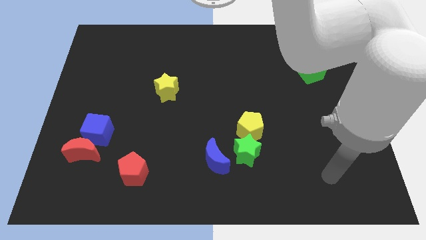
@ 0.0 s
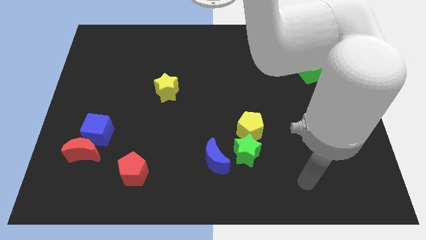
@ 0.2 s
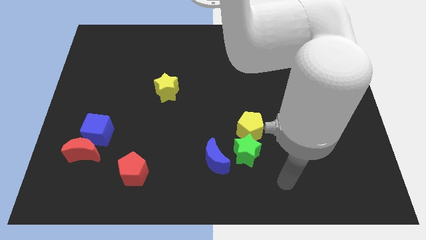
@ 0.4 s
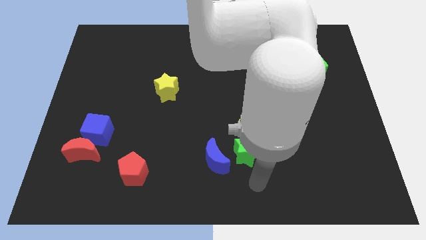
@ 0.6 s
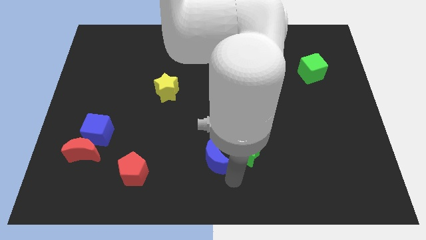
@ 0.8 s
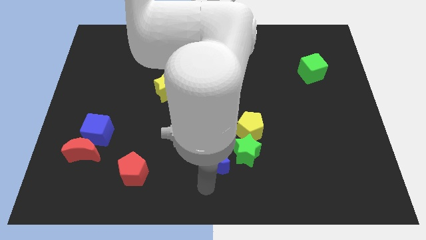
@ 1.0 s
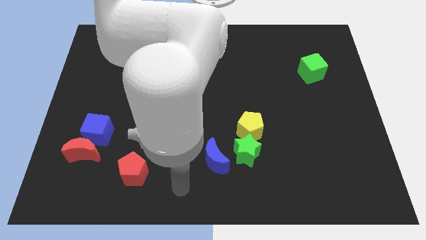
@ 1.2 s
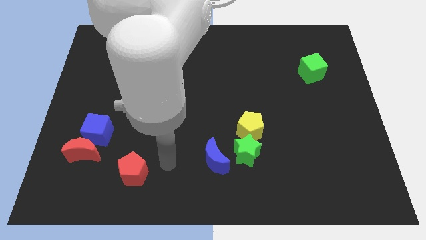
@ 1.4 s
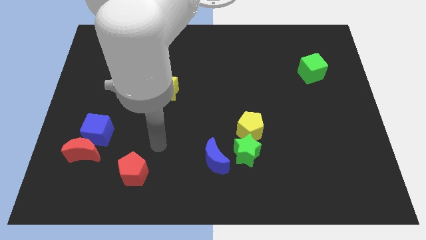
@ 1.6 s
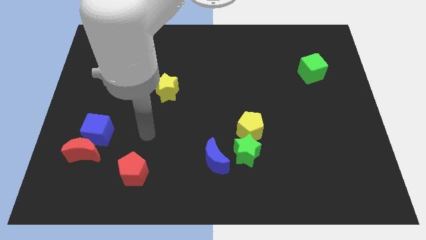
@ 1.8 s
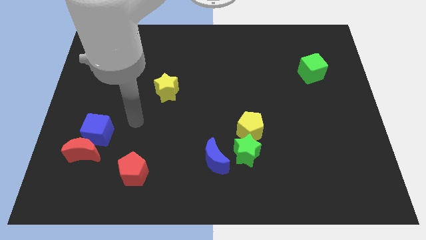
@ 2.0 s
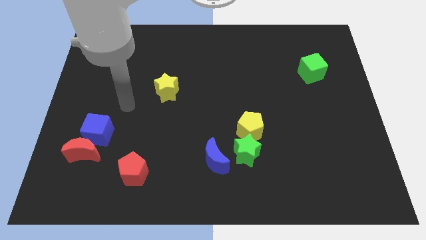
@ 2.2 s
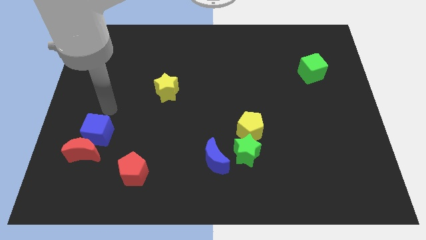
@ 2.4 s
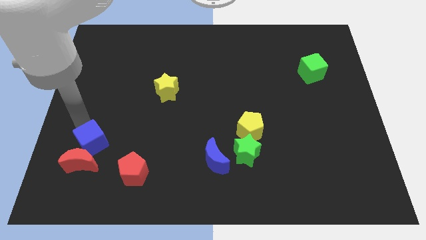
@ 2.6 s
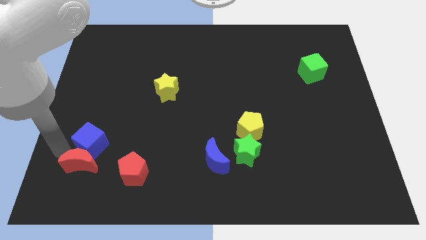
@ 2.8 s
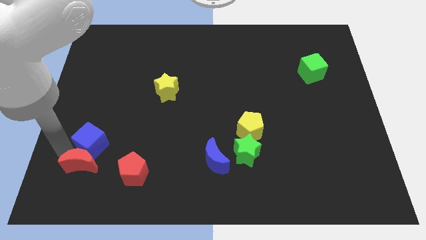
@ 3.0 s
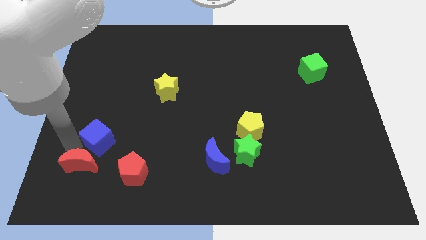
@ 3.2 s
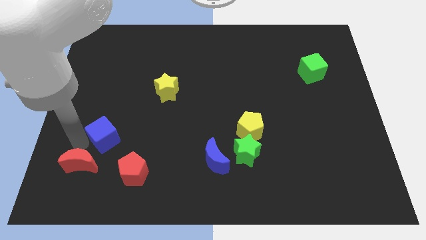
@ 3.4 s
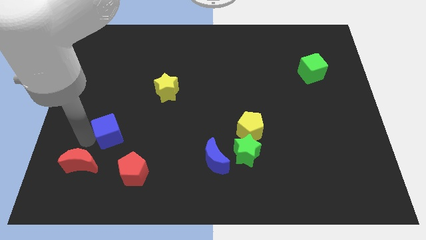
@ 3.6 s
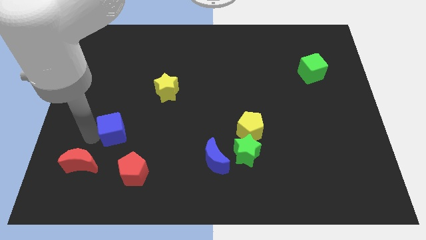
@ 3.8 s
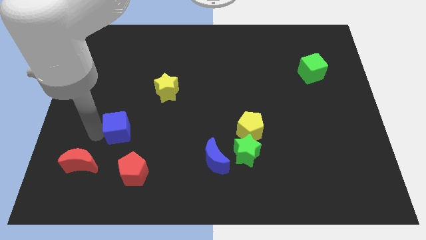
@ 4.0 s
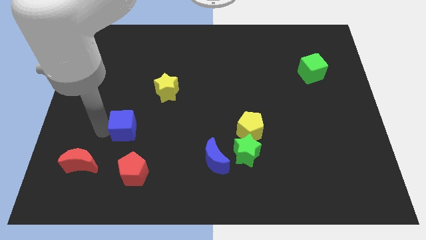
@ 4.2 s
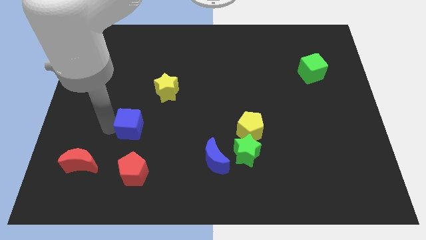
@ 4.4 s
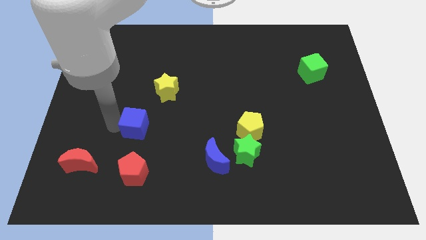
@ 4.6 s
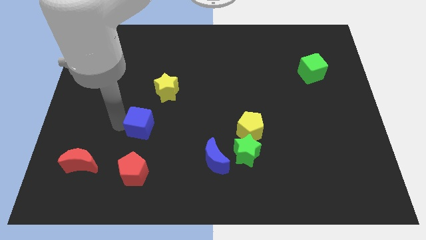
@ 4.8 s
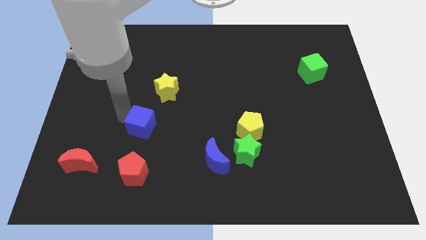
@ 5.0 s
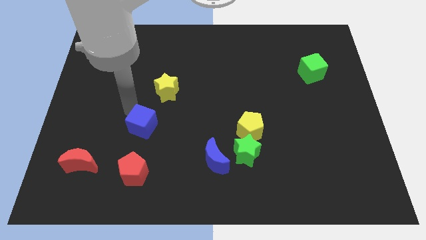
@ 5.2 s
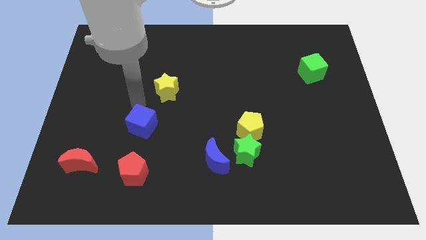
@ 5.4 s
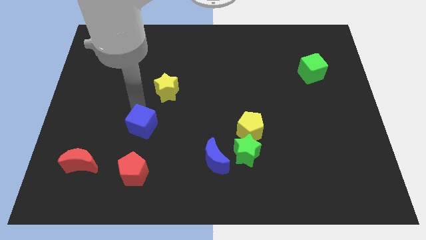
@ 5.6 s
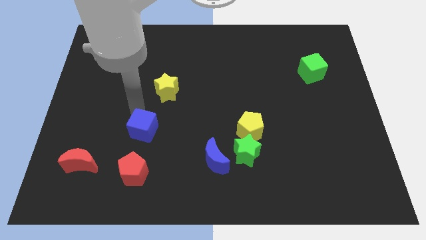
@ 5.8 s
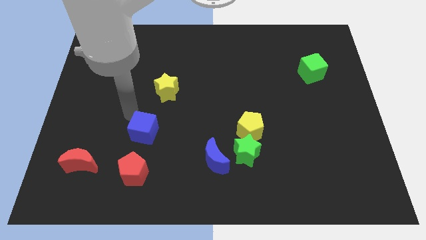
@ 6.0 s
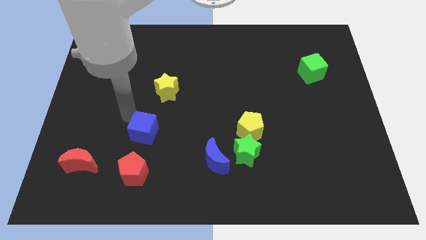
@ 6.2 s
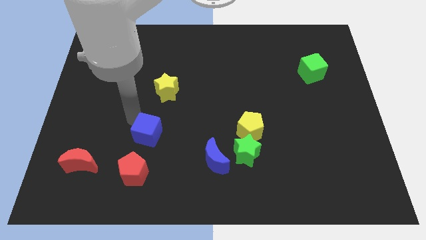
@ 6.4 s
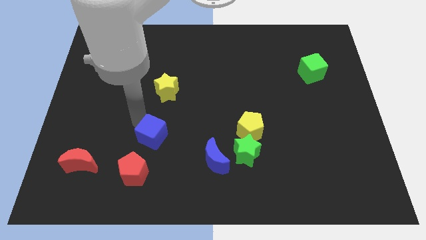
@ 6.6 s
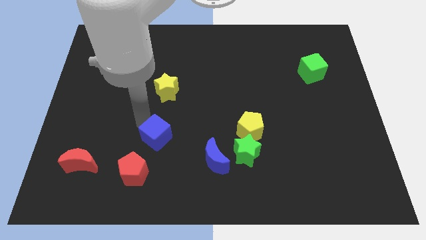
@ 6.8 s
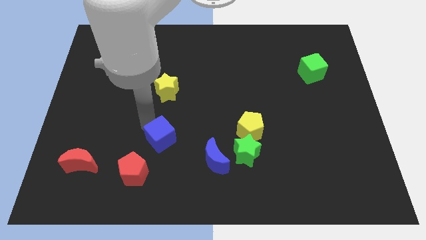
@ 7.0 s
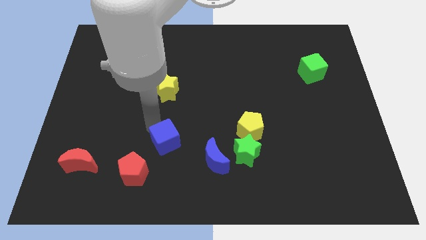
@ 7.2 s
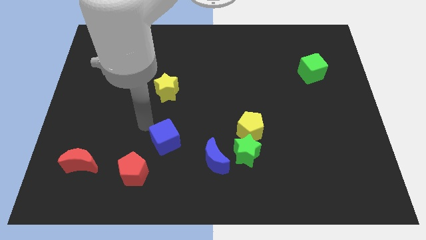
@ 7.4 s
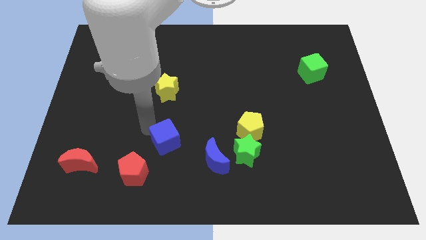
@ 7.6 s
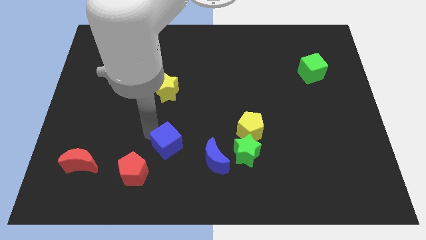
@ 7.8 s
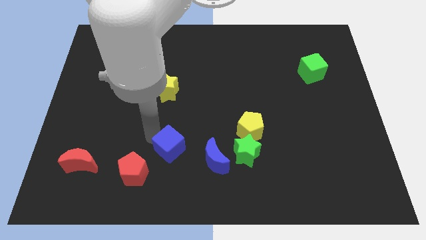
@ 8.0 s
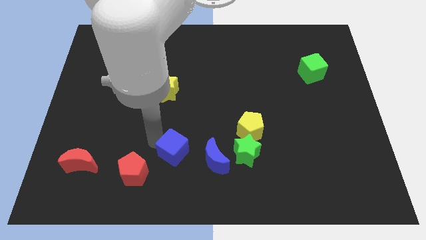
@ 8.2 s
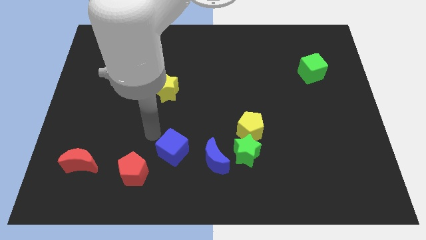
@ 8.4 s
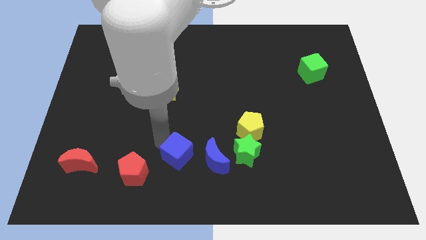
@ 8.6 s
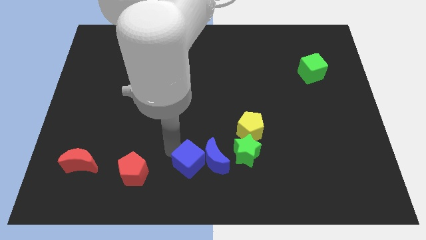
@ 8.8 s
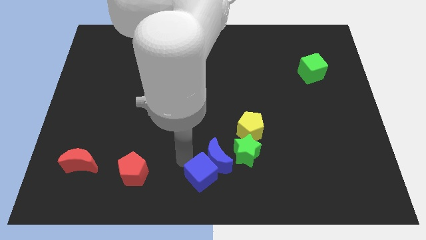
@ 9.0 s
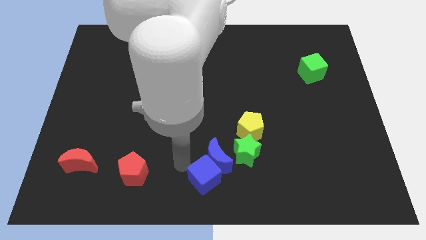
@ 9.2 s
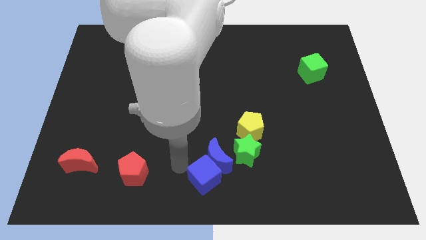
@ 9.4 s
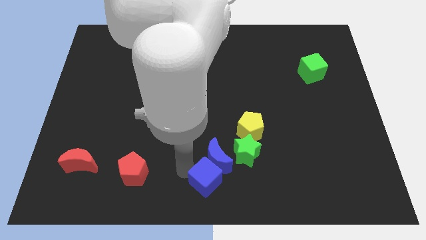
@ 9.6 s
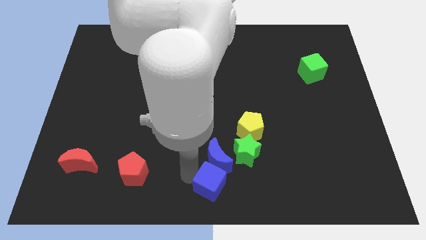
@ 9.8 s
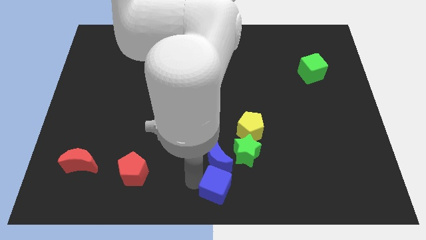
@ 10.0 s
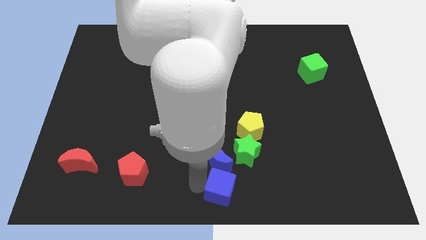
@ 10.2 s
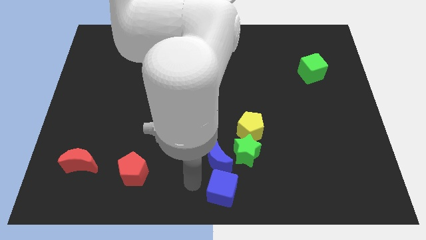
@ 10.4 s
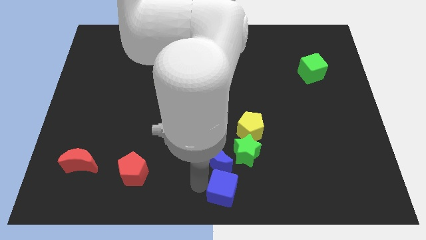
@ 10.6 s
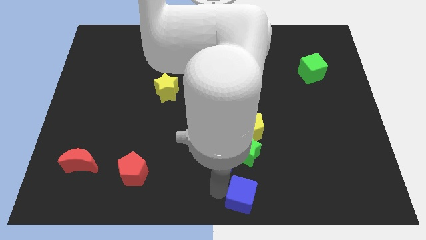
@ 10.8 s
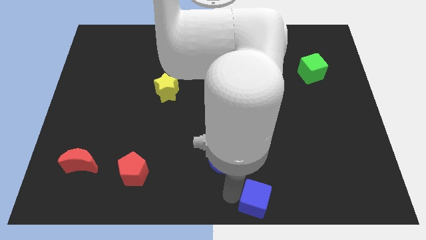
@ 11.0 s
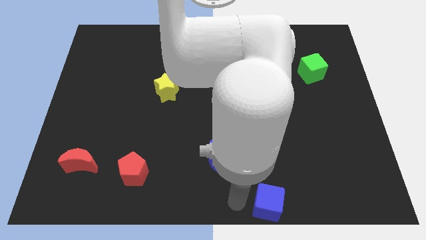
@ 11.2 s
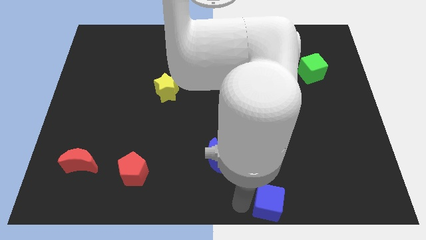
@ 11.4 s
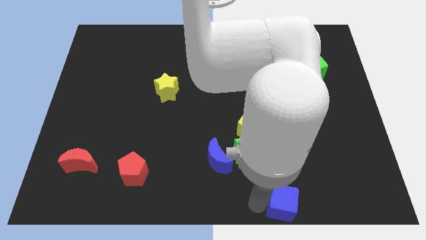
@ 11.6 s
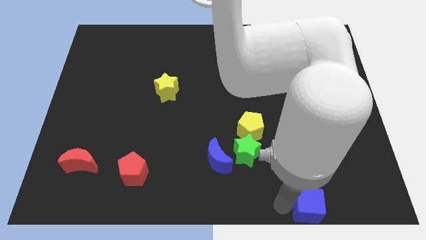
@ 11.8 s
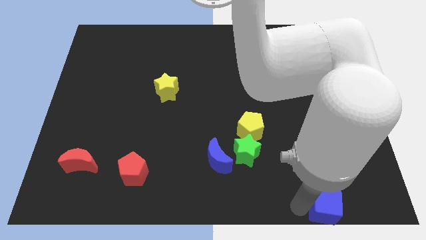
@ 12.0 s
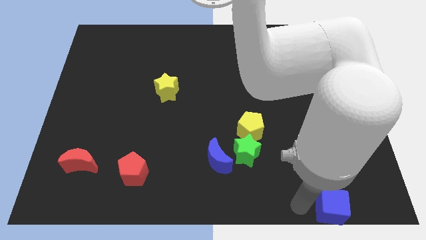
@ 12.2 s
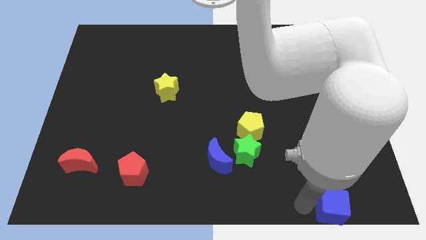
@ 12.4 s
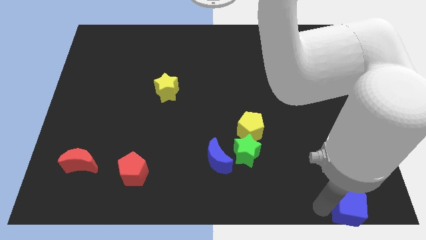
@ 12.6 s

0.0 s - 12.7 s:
slide the blue cube to the bottom right
